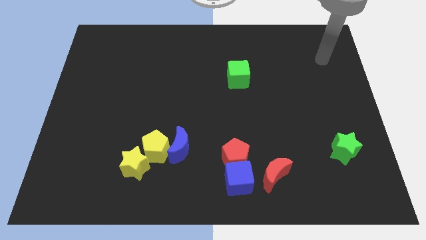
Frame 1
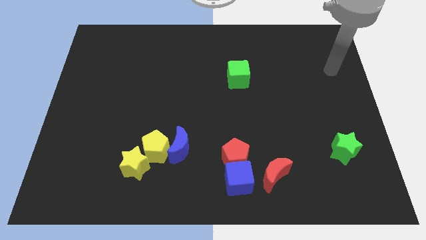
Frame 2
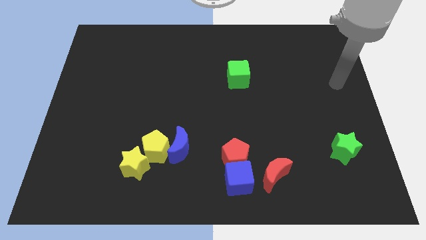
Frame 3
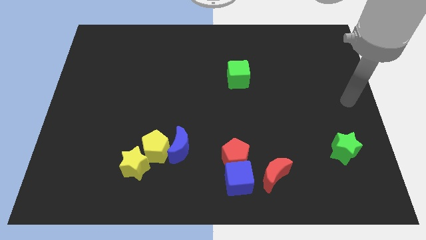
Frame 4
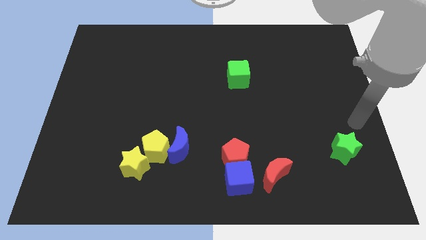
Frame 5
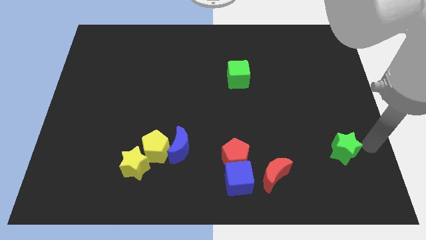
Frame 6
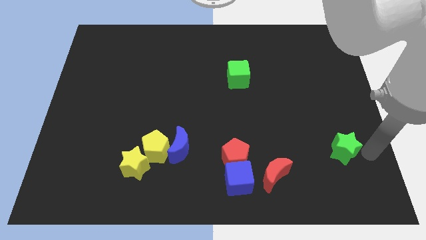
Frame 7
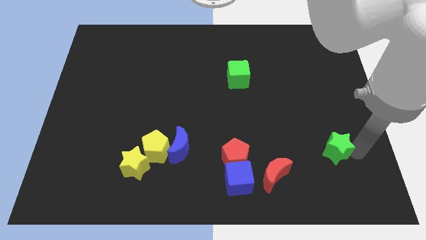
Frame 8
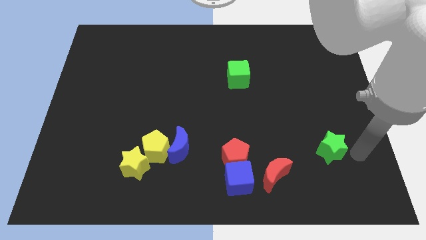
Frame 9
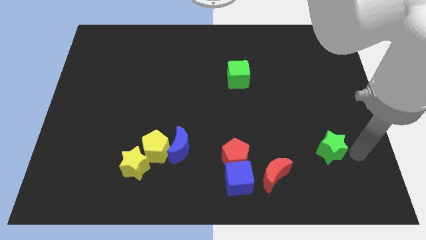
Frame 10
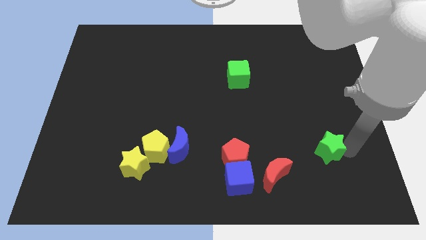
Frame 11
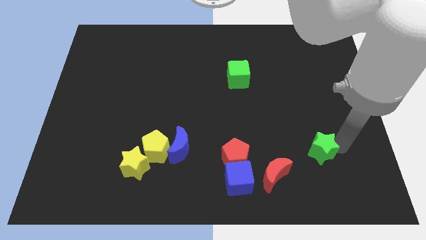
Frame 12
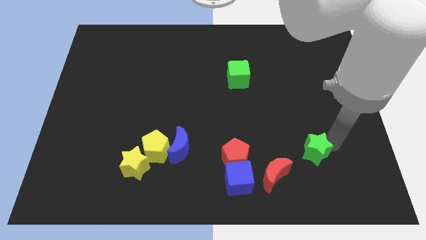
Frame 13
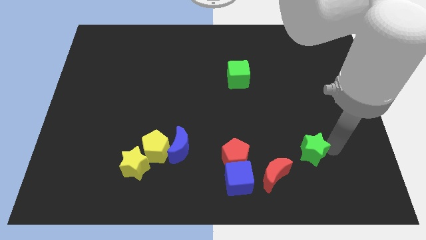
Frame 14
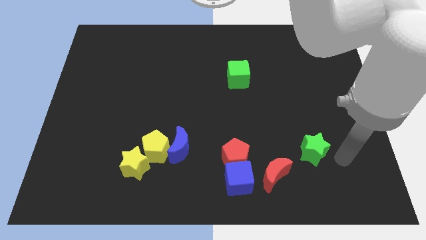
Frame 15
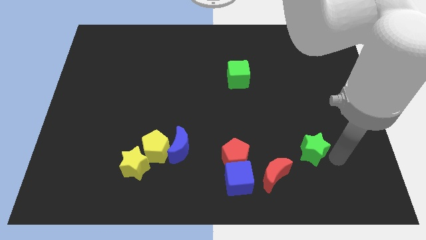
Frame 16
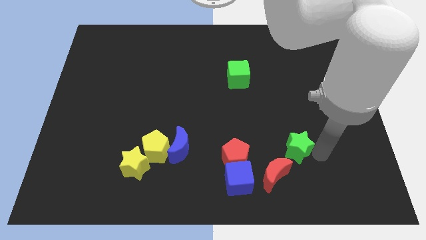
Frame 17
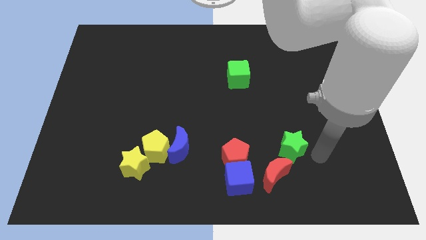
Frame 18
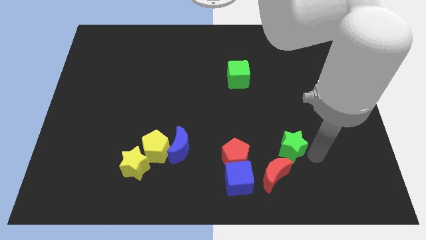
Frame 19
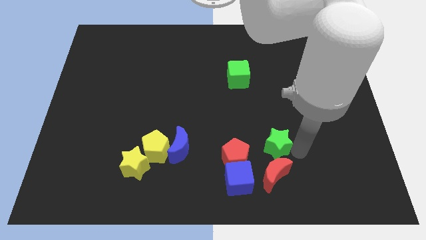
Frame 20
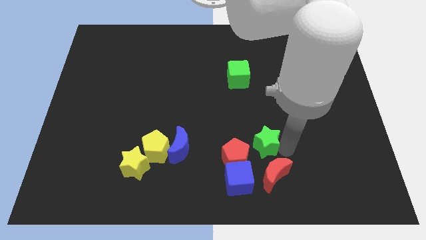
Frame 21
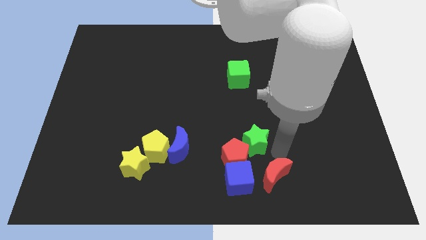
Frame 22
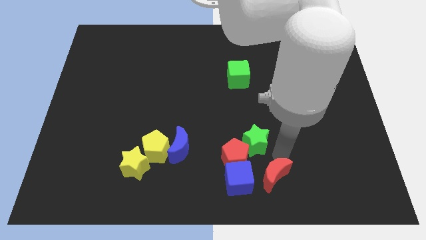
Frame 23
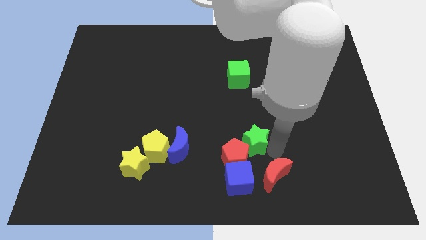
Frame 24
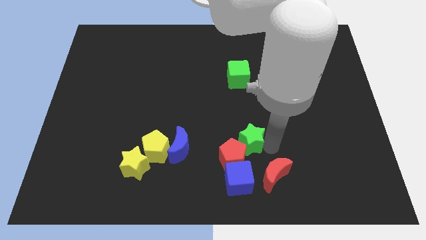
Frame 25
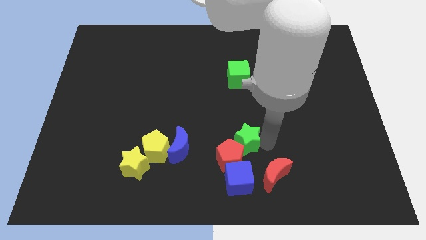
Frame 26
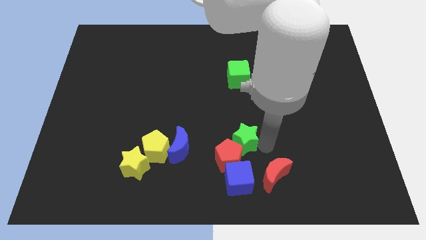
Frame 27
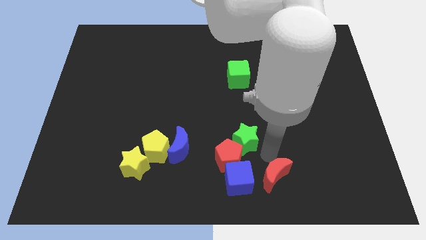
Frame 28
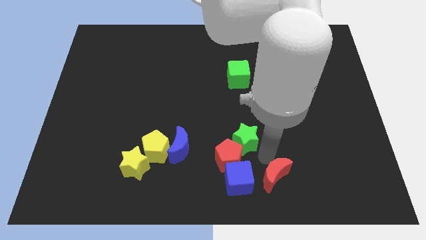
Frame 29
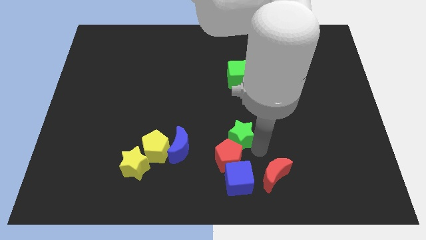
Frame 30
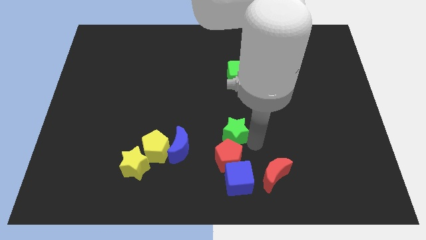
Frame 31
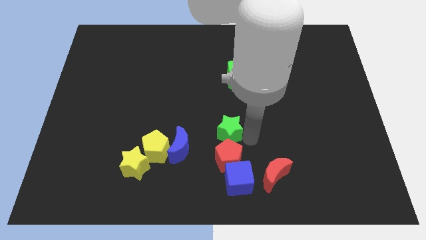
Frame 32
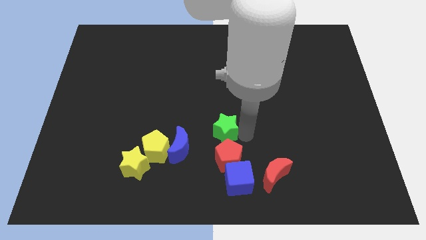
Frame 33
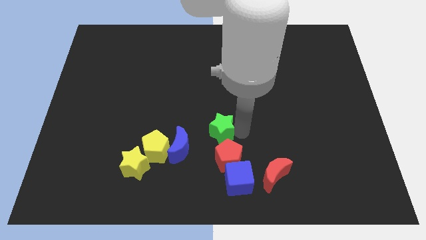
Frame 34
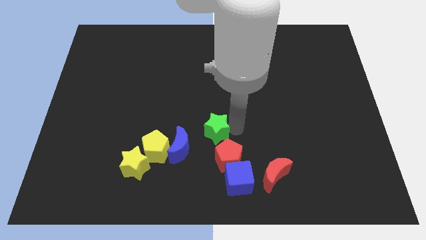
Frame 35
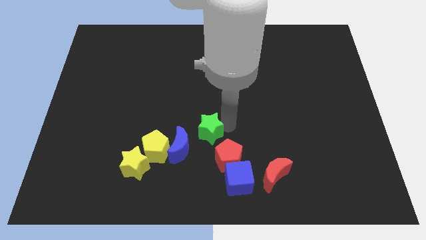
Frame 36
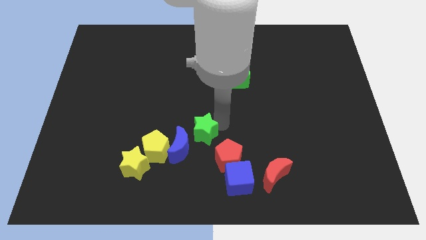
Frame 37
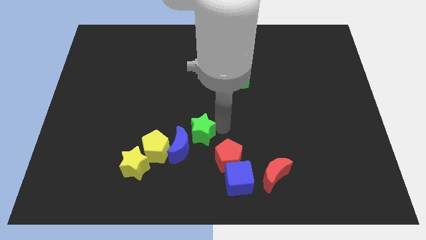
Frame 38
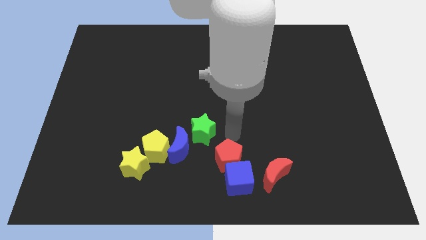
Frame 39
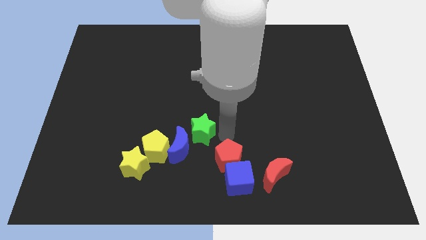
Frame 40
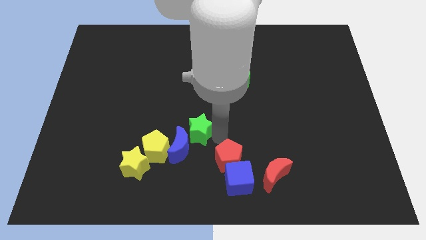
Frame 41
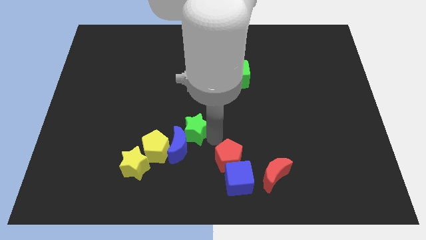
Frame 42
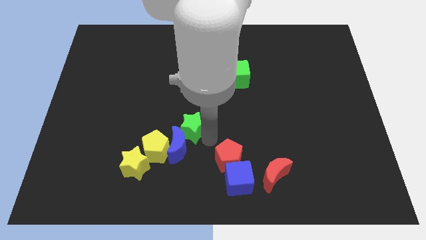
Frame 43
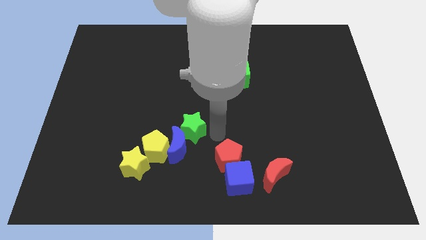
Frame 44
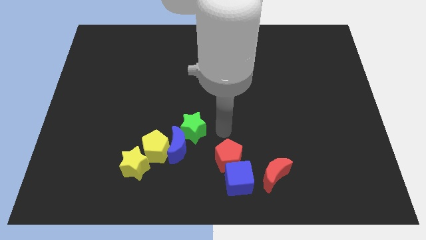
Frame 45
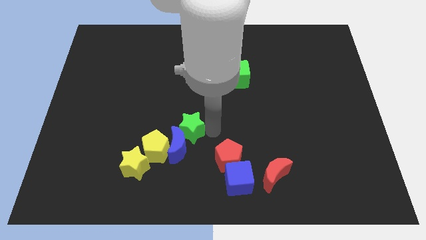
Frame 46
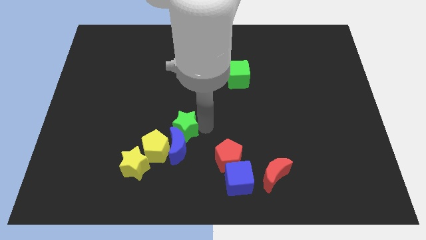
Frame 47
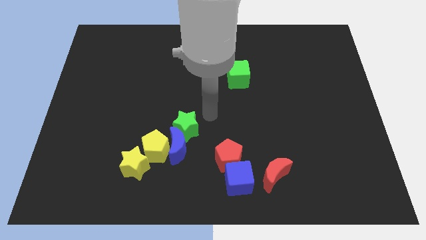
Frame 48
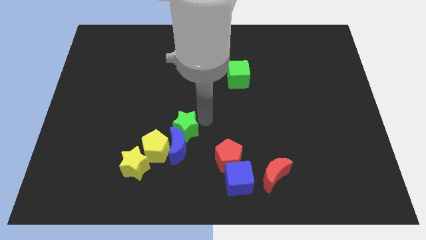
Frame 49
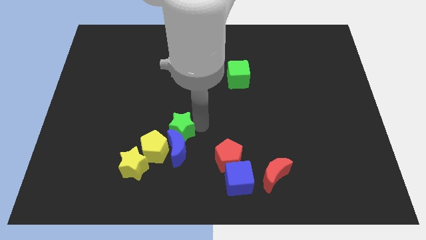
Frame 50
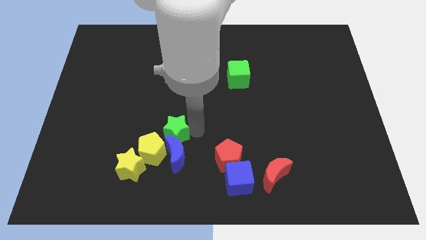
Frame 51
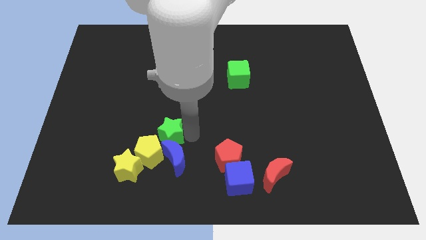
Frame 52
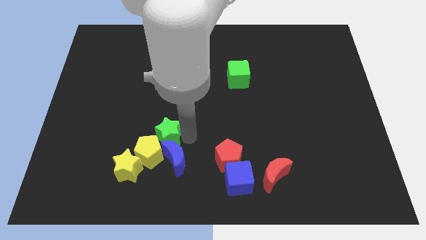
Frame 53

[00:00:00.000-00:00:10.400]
move the green star to the yellow pentagon

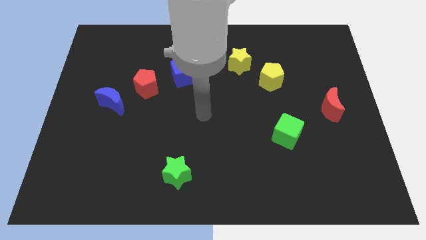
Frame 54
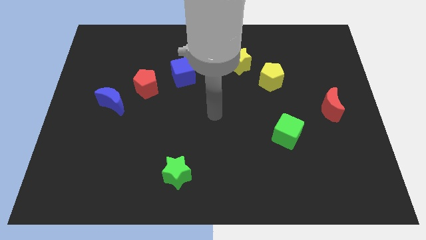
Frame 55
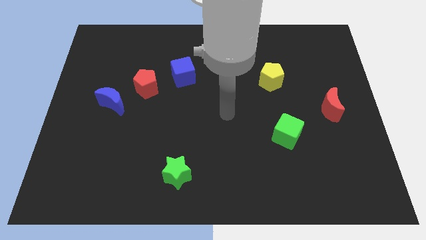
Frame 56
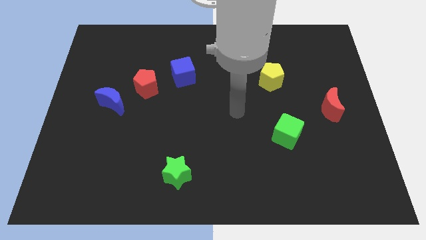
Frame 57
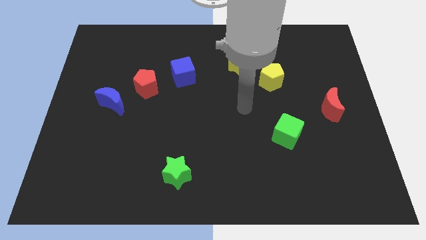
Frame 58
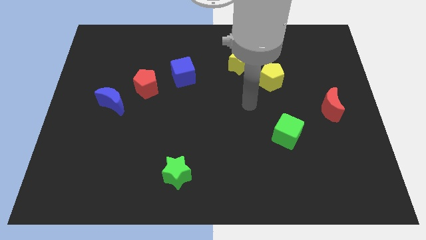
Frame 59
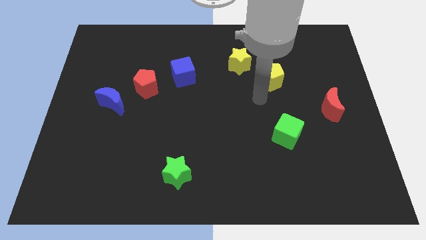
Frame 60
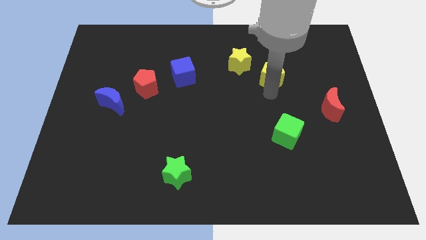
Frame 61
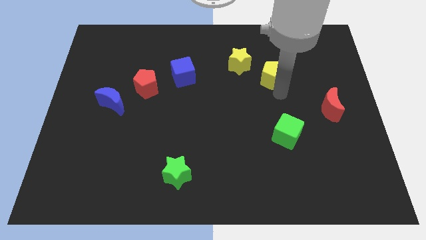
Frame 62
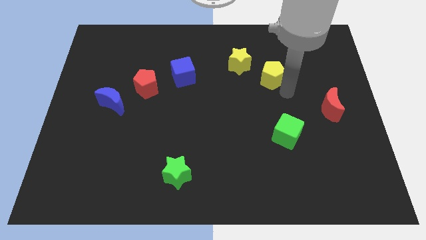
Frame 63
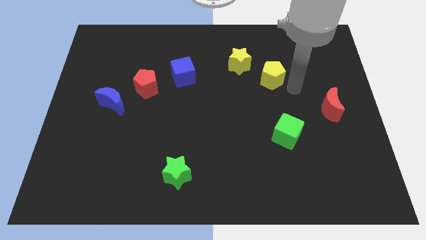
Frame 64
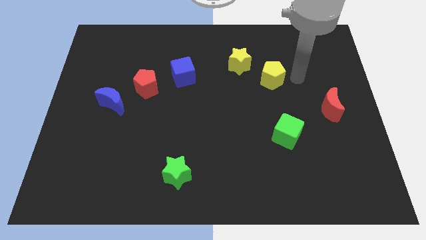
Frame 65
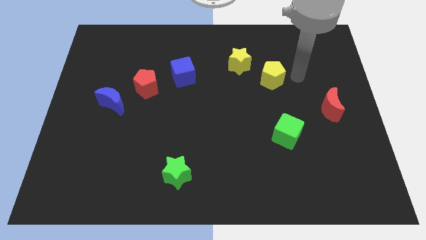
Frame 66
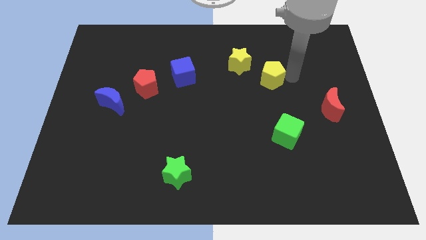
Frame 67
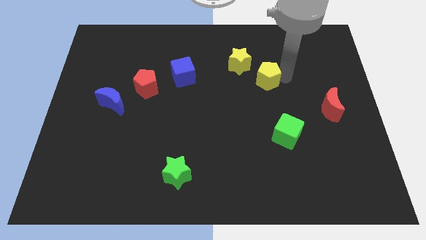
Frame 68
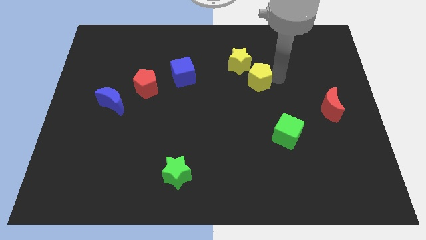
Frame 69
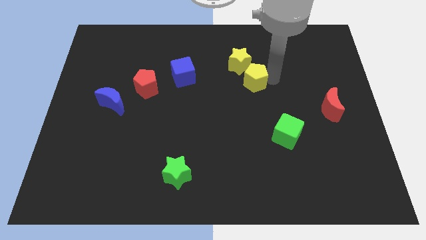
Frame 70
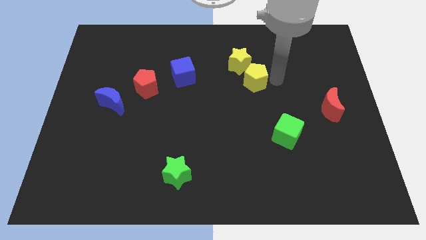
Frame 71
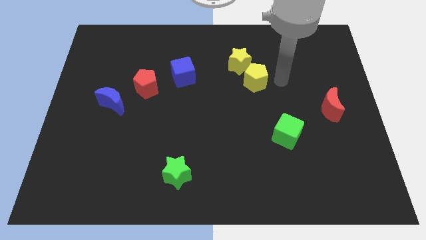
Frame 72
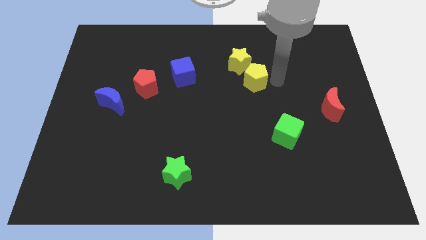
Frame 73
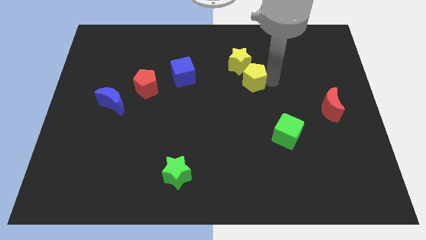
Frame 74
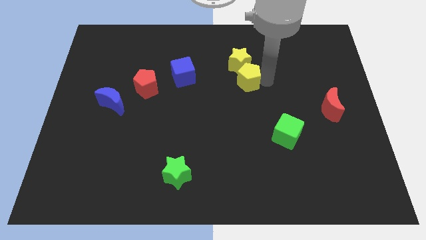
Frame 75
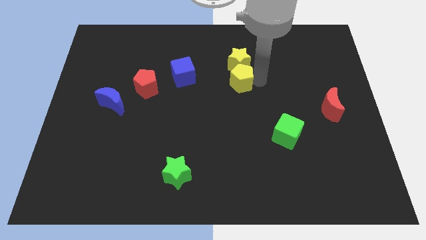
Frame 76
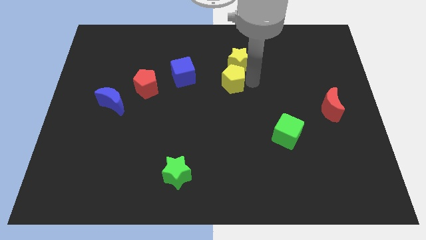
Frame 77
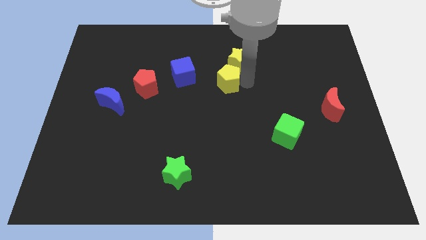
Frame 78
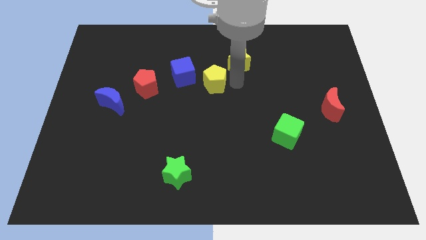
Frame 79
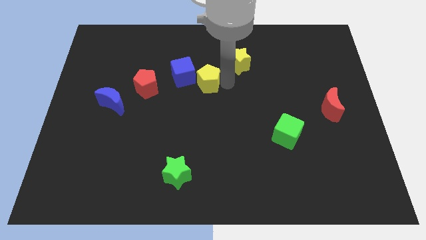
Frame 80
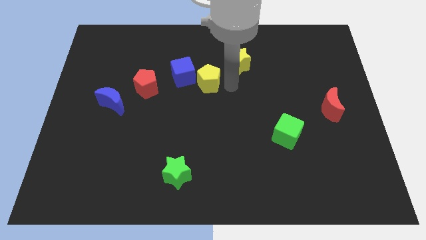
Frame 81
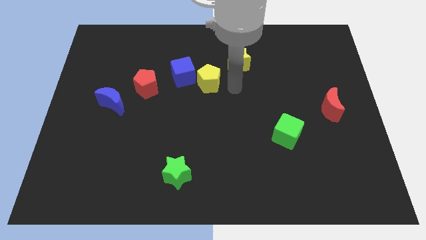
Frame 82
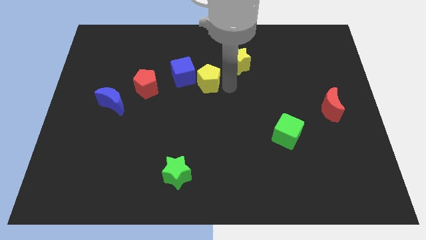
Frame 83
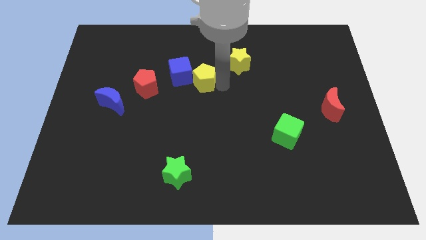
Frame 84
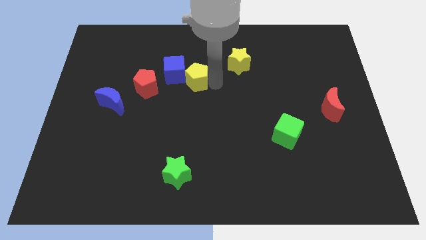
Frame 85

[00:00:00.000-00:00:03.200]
slide the yellow pentagon next to the blue cube
